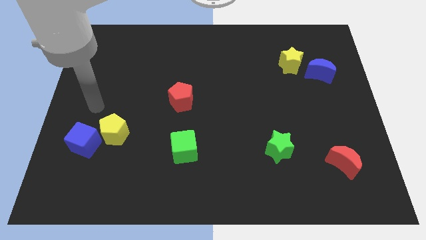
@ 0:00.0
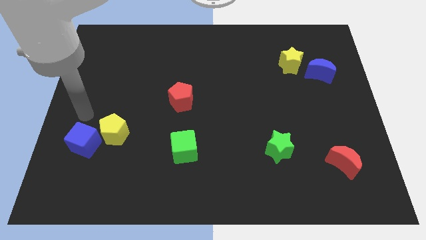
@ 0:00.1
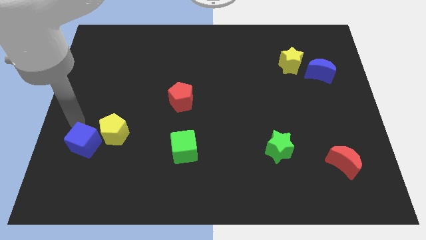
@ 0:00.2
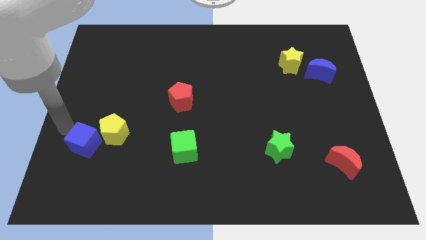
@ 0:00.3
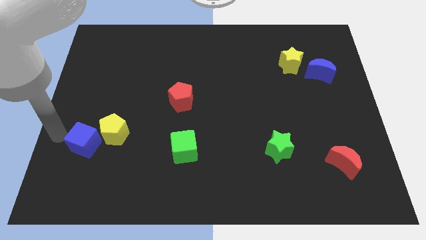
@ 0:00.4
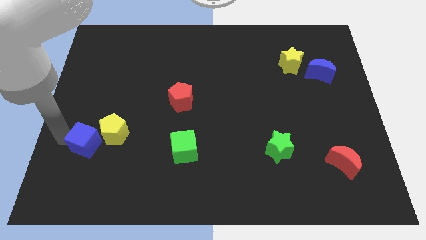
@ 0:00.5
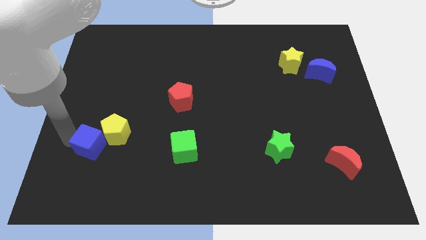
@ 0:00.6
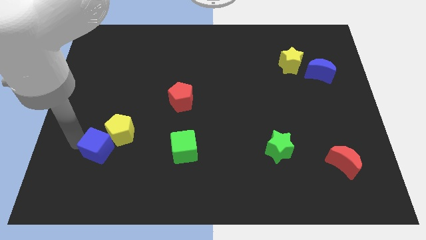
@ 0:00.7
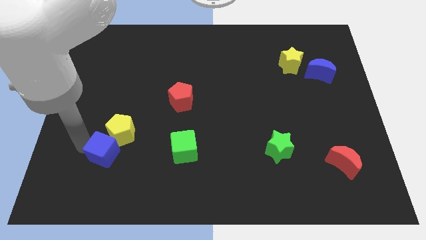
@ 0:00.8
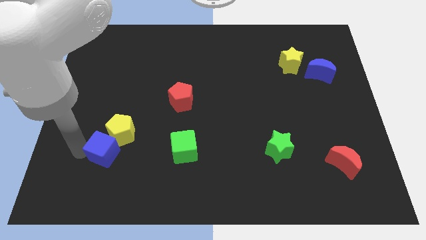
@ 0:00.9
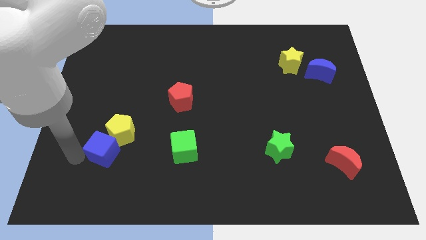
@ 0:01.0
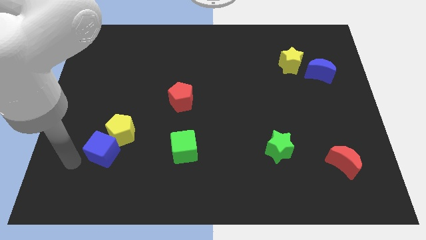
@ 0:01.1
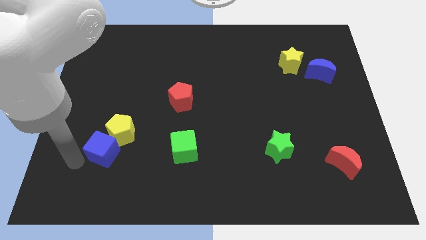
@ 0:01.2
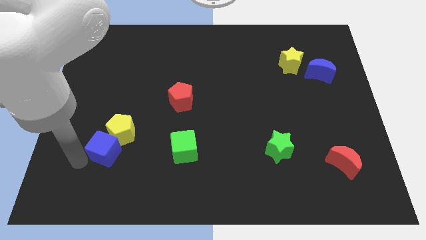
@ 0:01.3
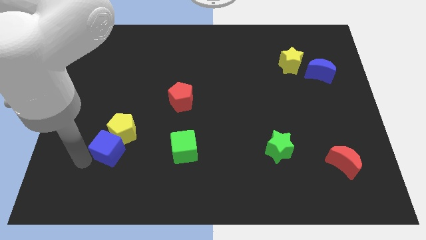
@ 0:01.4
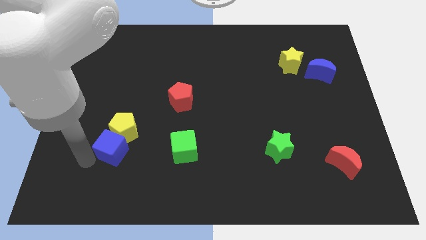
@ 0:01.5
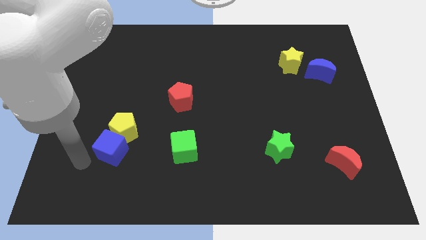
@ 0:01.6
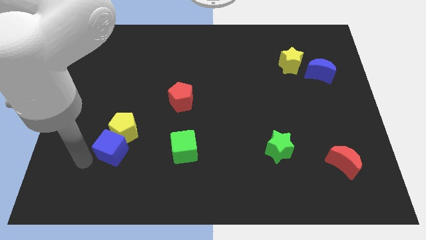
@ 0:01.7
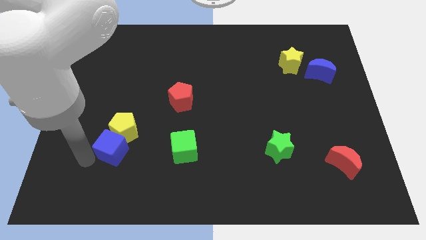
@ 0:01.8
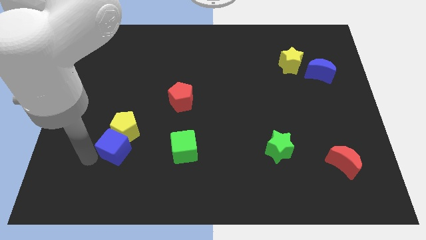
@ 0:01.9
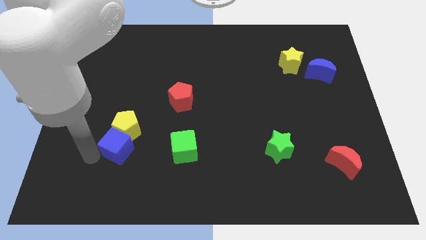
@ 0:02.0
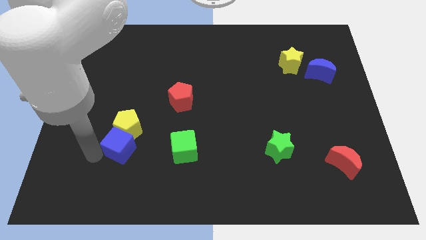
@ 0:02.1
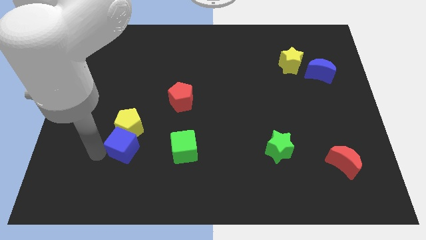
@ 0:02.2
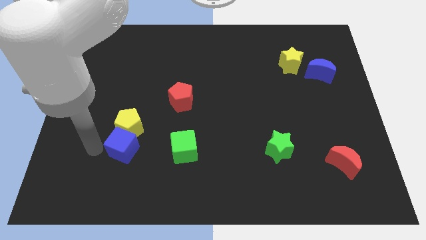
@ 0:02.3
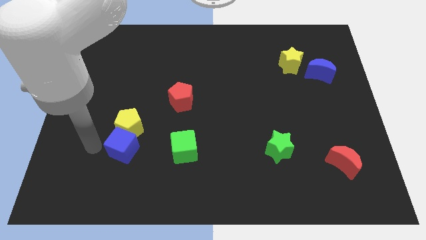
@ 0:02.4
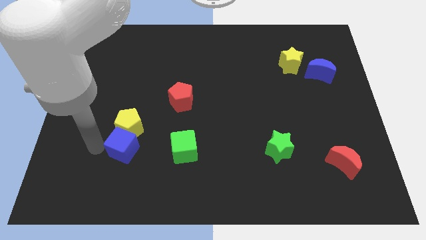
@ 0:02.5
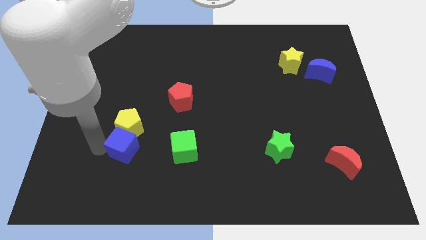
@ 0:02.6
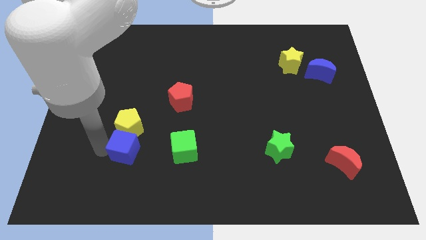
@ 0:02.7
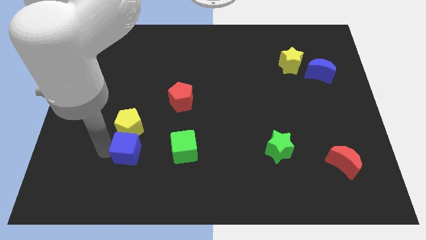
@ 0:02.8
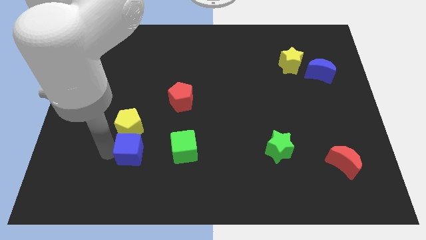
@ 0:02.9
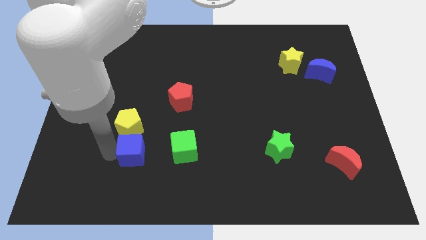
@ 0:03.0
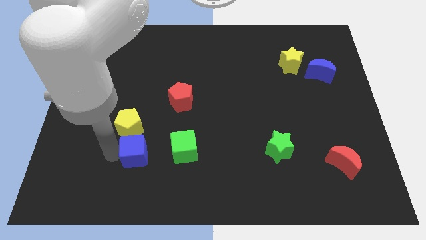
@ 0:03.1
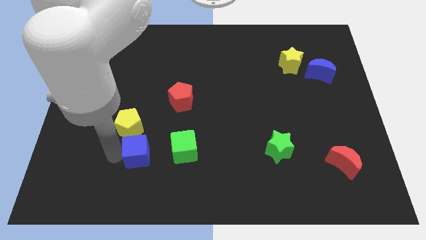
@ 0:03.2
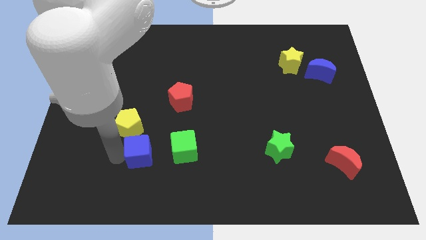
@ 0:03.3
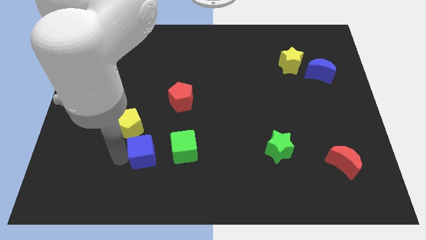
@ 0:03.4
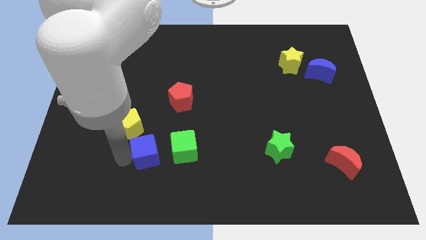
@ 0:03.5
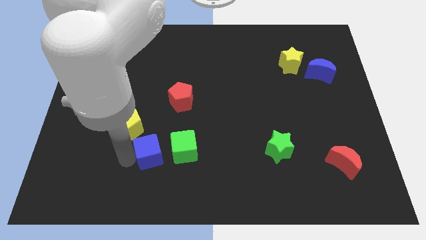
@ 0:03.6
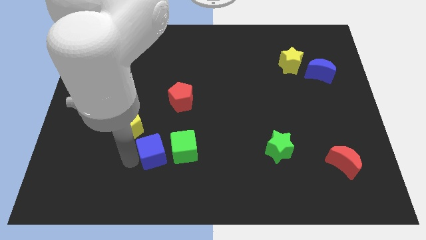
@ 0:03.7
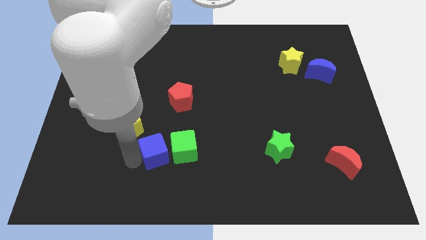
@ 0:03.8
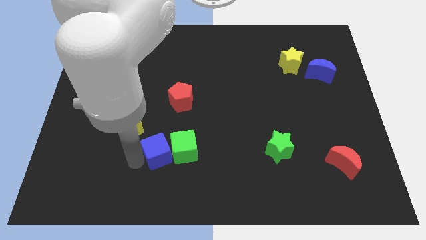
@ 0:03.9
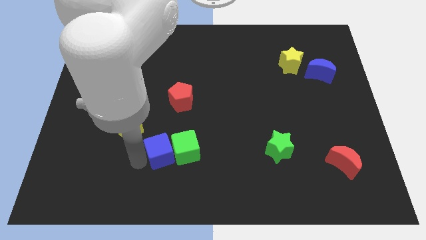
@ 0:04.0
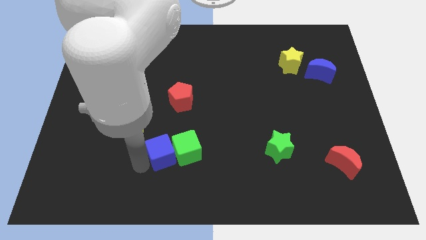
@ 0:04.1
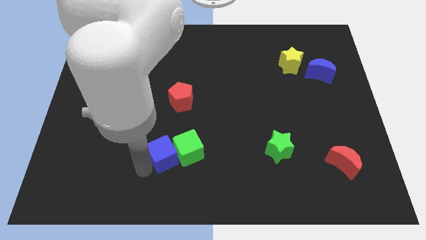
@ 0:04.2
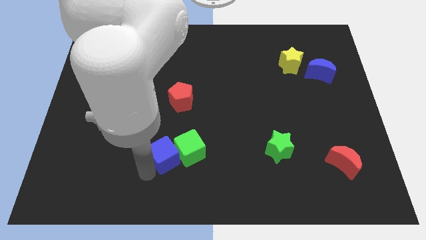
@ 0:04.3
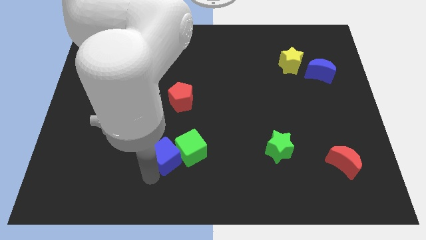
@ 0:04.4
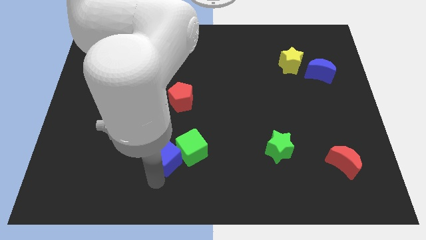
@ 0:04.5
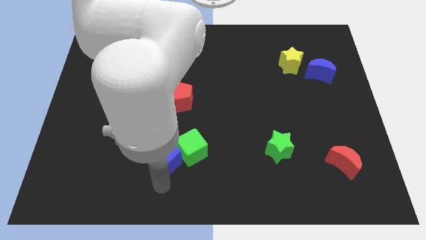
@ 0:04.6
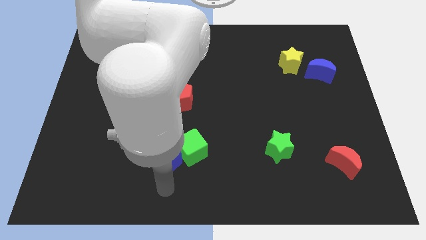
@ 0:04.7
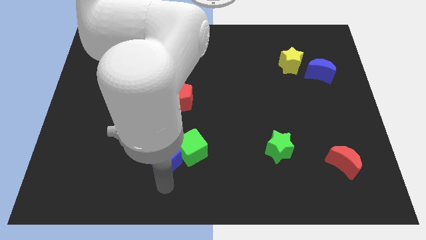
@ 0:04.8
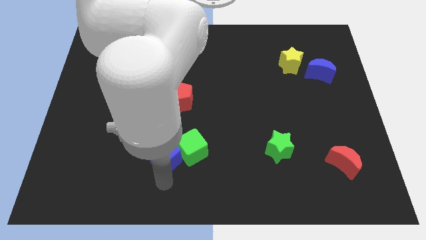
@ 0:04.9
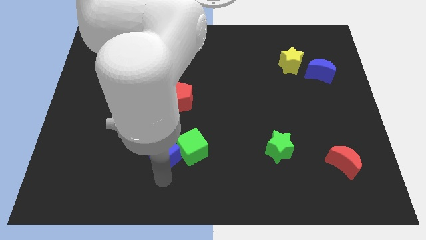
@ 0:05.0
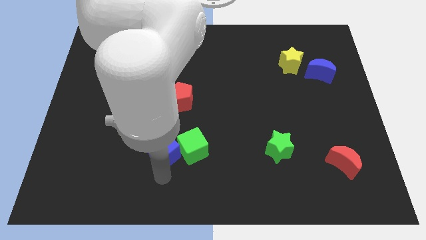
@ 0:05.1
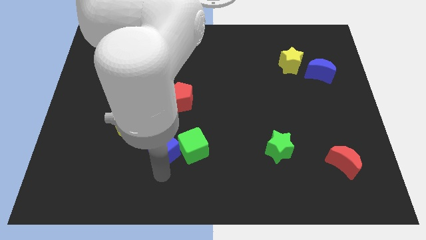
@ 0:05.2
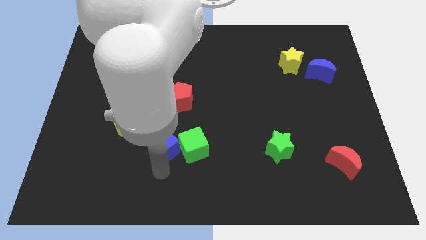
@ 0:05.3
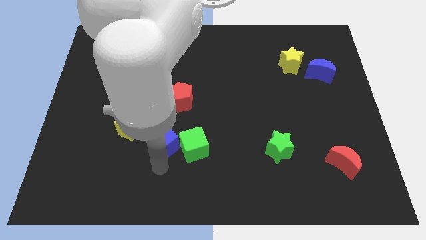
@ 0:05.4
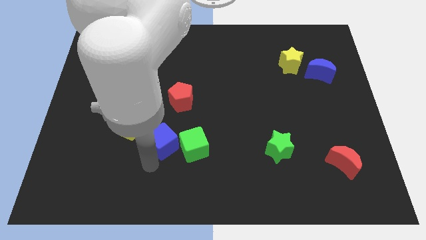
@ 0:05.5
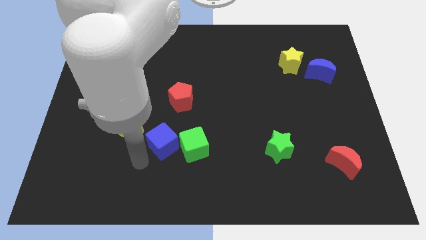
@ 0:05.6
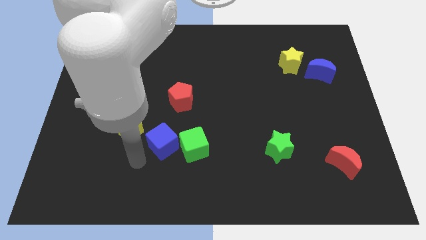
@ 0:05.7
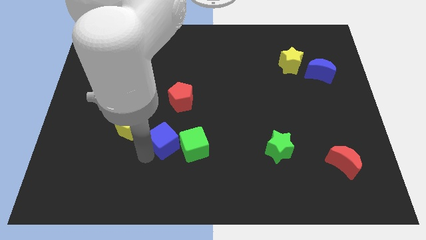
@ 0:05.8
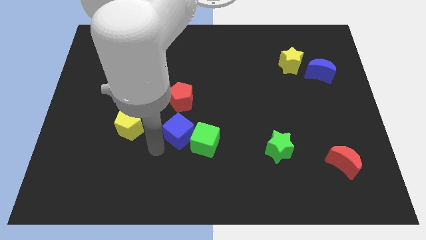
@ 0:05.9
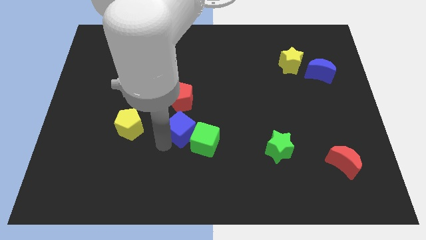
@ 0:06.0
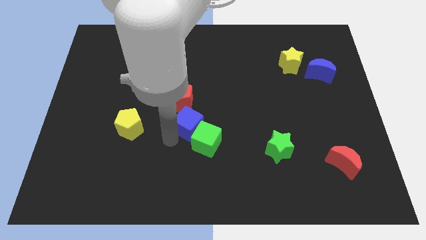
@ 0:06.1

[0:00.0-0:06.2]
move the blue cube to the bottom right of the red pentagon

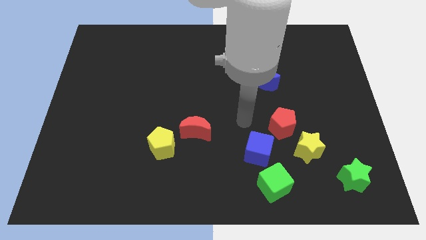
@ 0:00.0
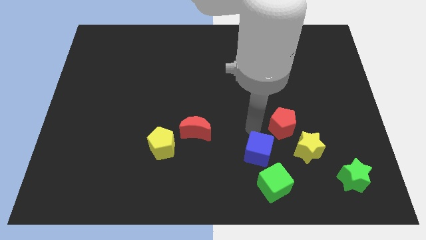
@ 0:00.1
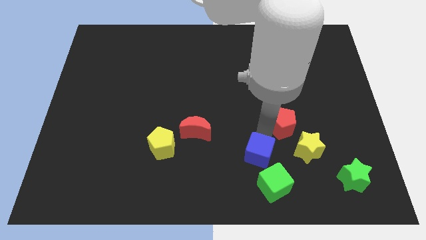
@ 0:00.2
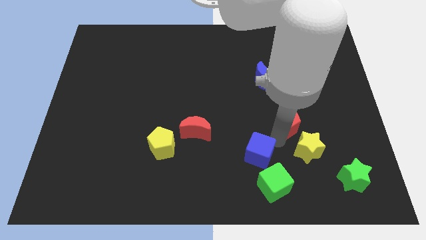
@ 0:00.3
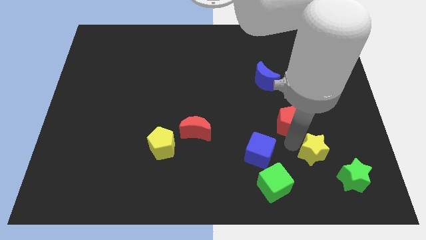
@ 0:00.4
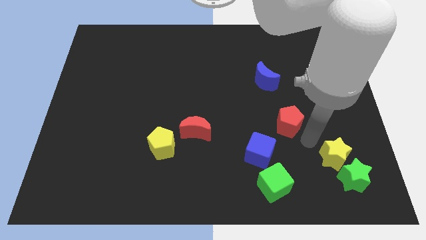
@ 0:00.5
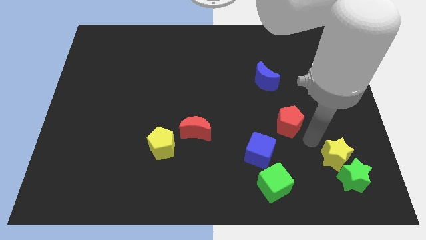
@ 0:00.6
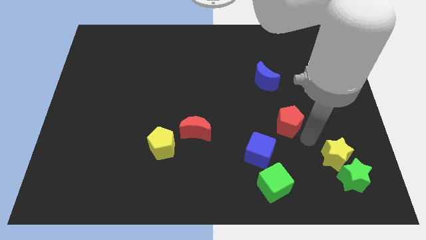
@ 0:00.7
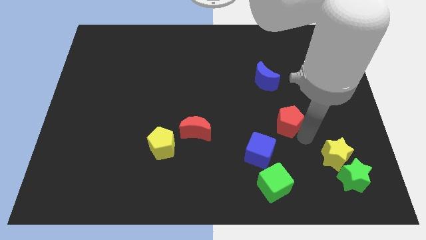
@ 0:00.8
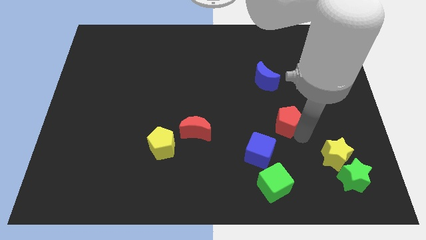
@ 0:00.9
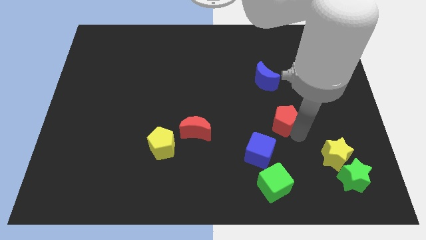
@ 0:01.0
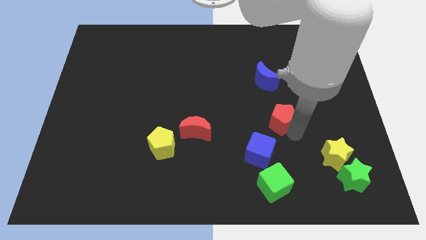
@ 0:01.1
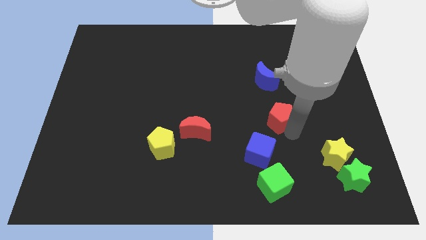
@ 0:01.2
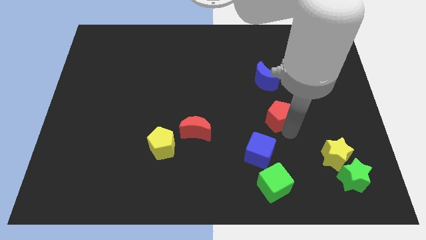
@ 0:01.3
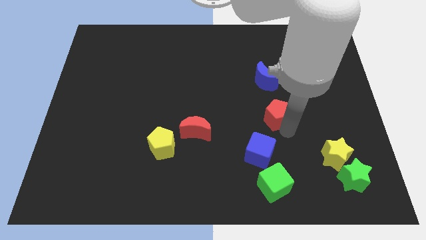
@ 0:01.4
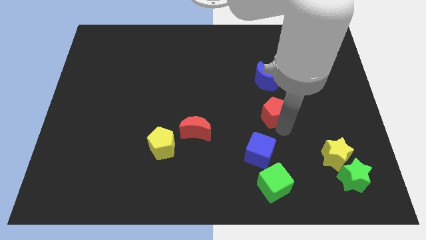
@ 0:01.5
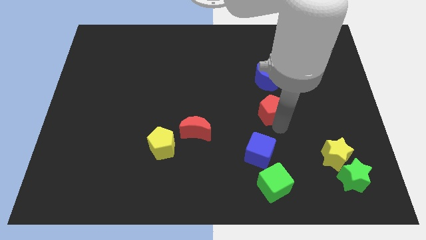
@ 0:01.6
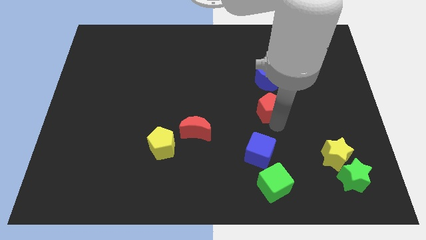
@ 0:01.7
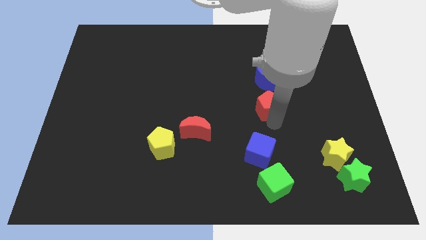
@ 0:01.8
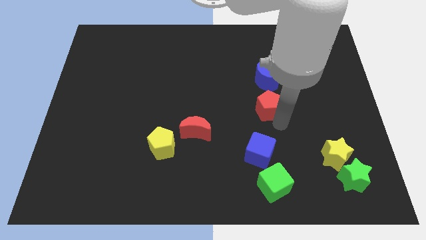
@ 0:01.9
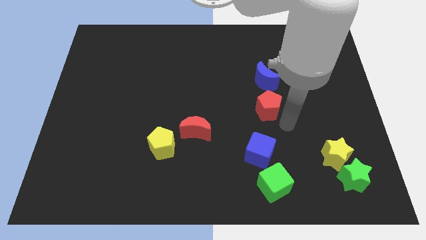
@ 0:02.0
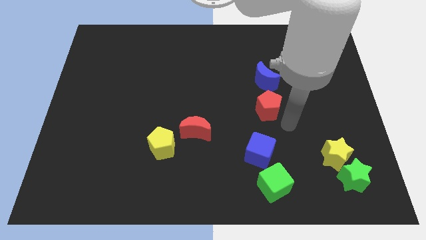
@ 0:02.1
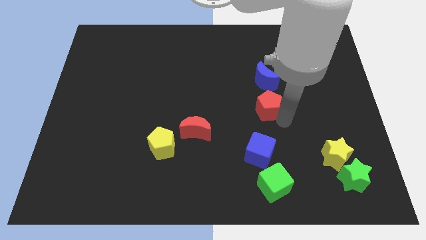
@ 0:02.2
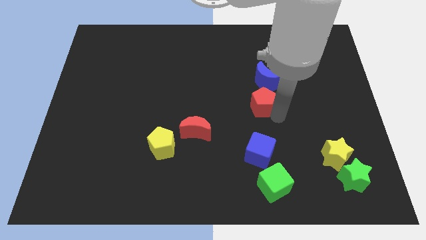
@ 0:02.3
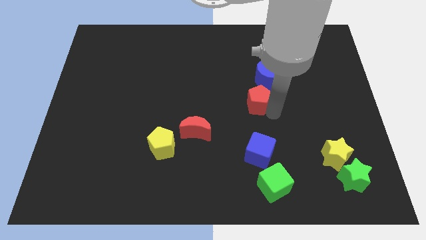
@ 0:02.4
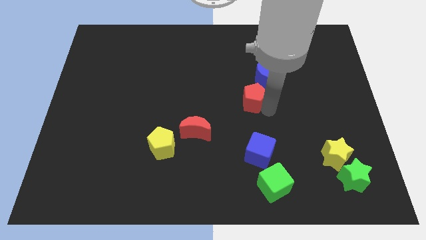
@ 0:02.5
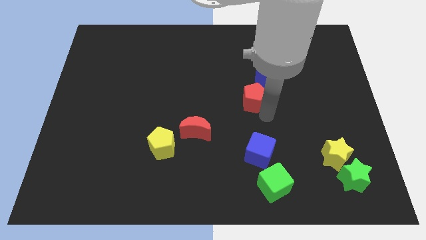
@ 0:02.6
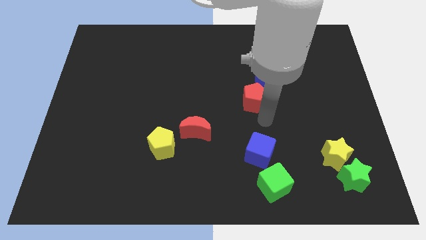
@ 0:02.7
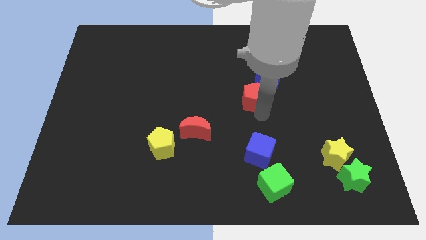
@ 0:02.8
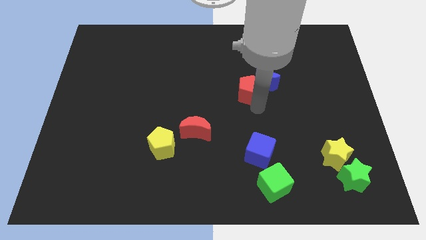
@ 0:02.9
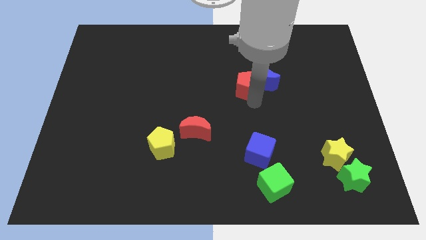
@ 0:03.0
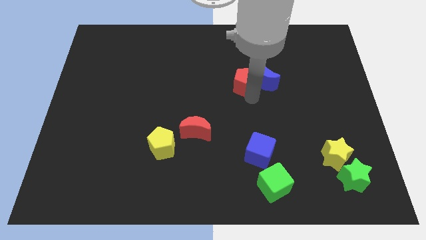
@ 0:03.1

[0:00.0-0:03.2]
push the red pentagon diagonally up and to the left of the blue moon
